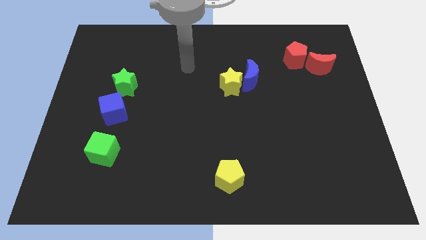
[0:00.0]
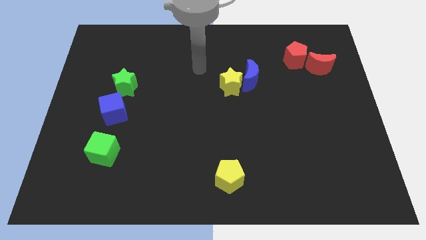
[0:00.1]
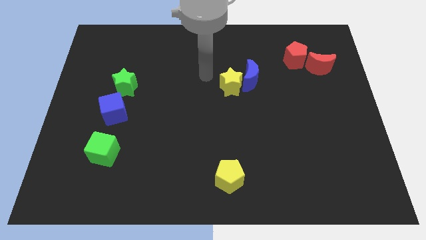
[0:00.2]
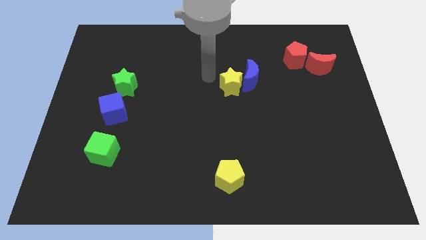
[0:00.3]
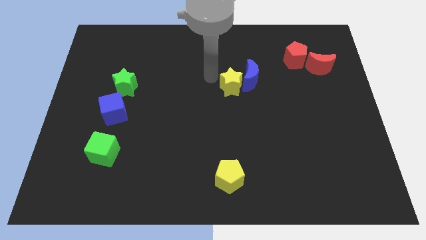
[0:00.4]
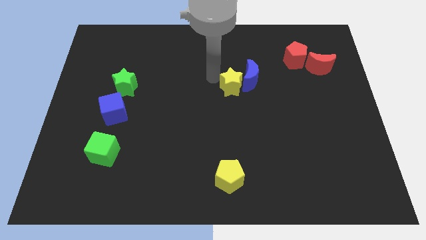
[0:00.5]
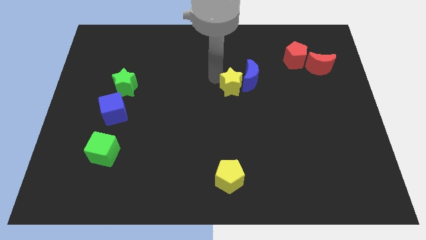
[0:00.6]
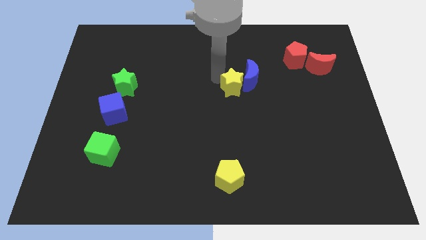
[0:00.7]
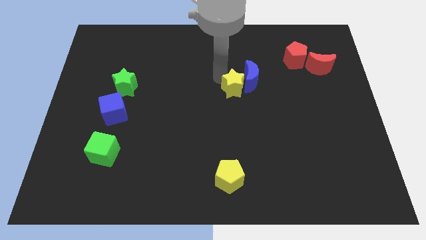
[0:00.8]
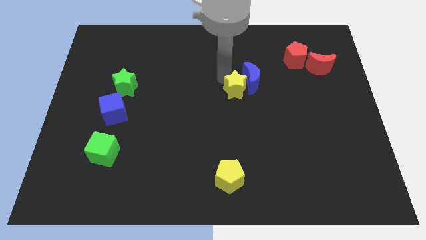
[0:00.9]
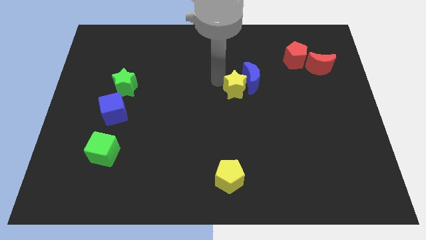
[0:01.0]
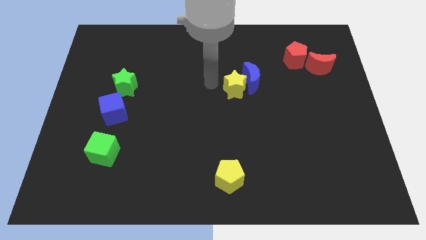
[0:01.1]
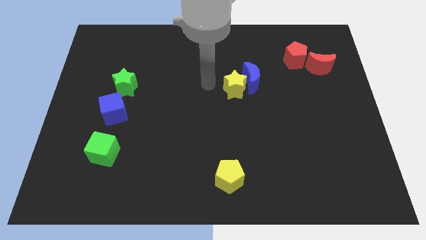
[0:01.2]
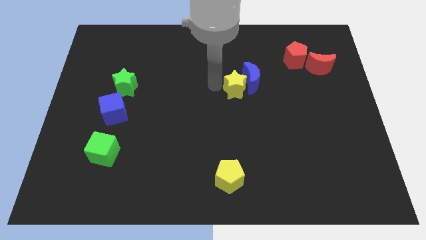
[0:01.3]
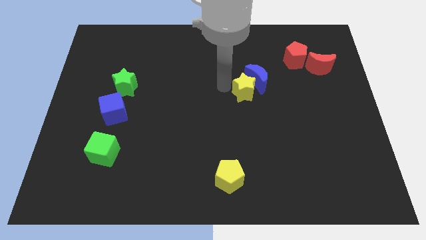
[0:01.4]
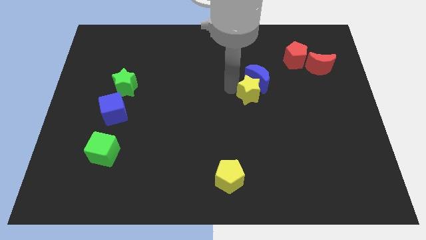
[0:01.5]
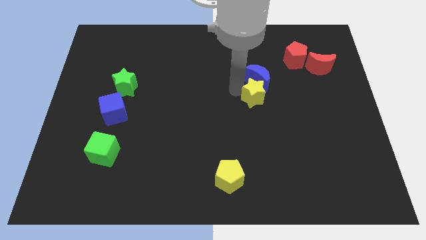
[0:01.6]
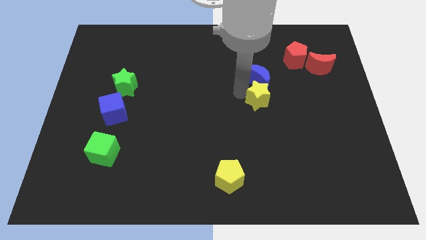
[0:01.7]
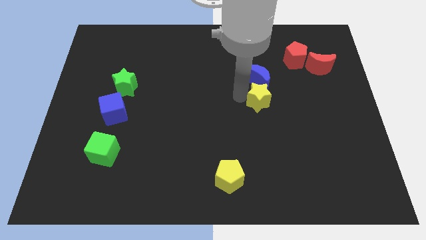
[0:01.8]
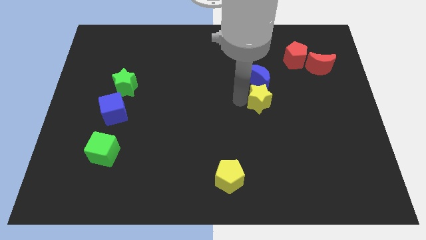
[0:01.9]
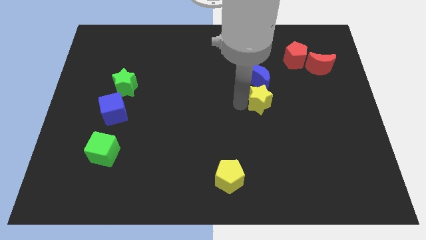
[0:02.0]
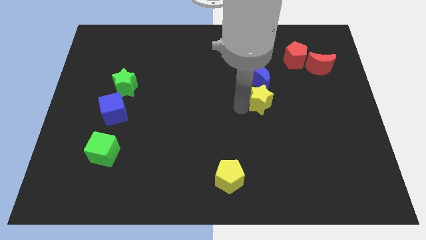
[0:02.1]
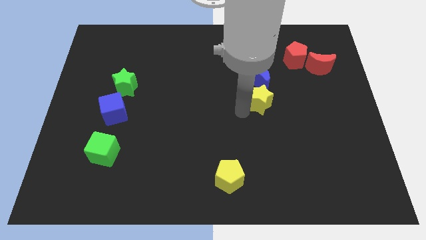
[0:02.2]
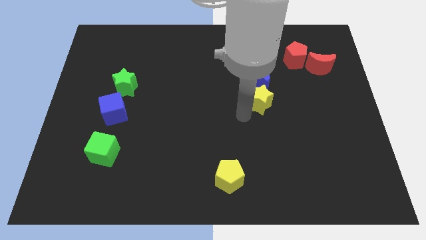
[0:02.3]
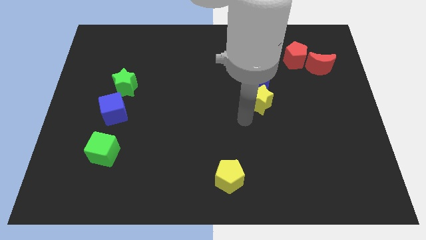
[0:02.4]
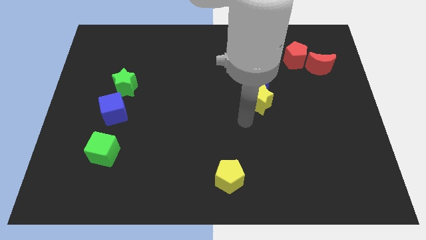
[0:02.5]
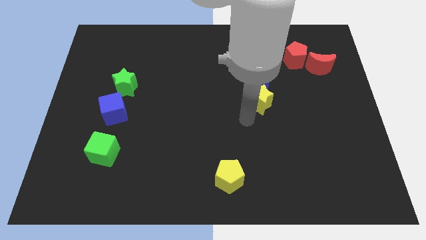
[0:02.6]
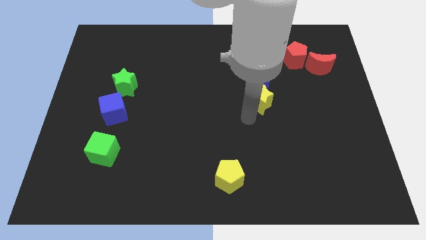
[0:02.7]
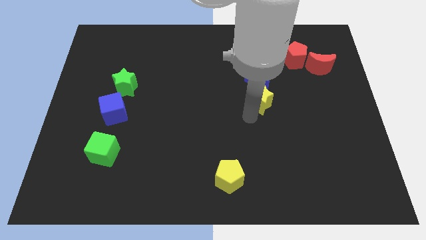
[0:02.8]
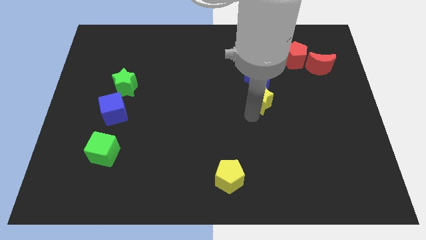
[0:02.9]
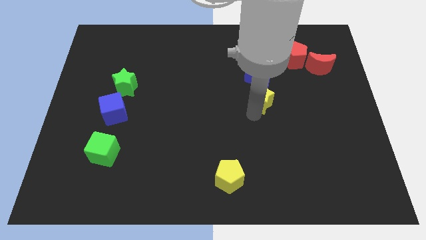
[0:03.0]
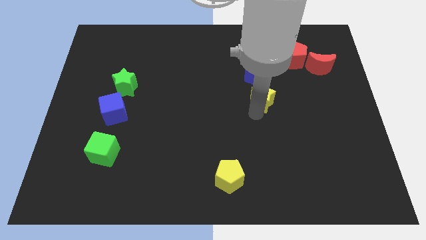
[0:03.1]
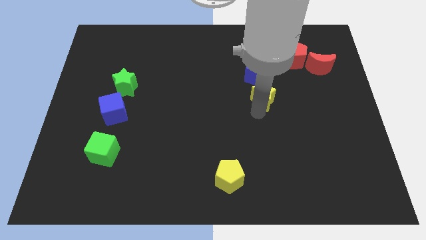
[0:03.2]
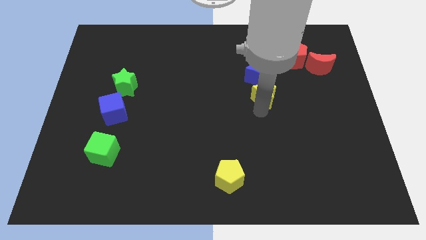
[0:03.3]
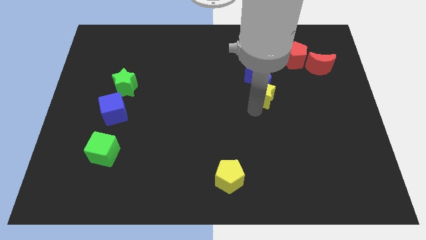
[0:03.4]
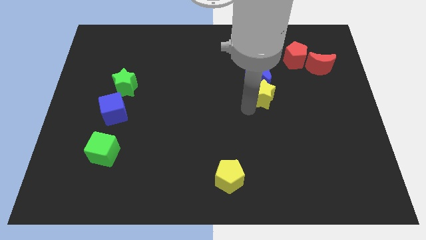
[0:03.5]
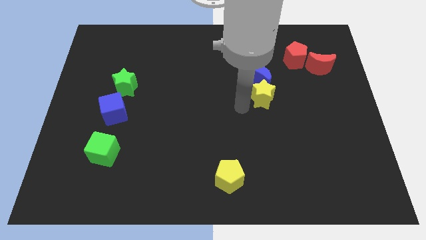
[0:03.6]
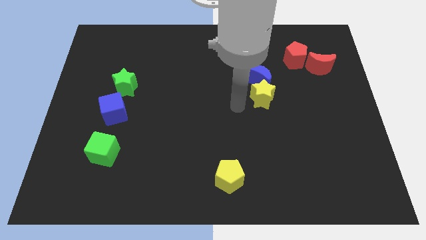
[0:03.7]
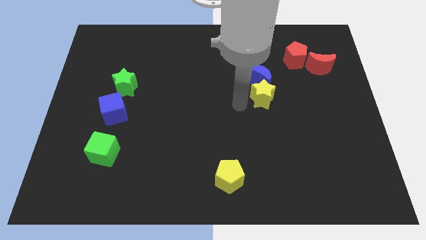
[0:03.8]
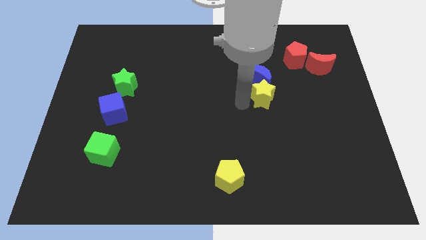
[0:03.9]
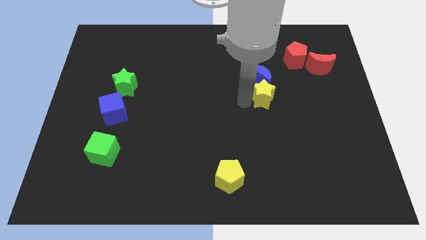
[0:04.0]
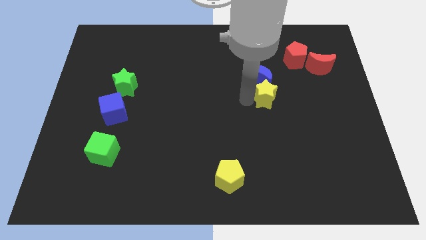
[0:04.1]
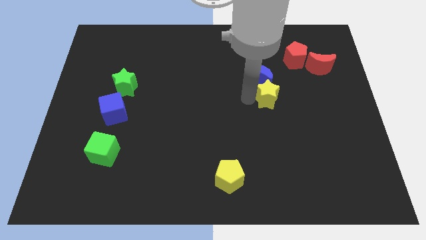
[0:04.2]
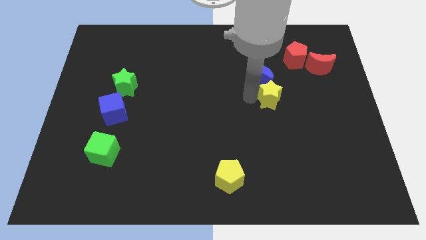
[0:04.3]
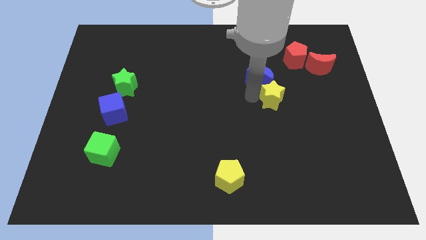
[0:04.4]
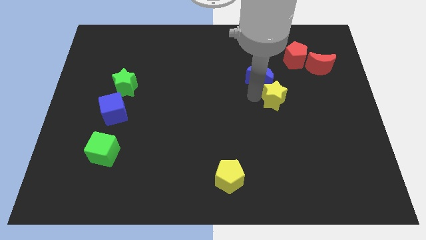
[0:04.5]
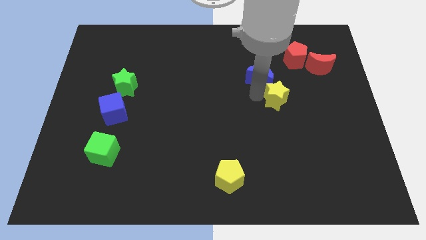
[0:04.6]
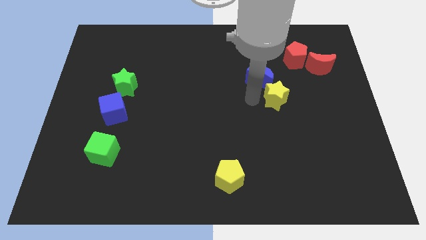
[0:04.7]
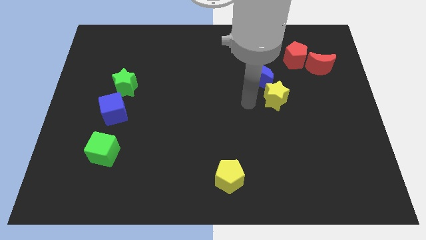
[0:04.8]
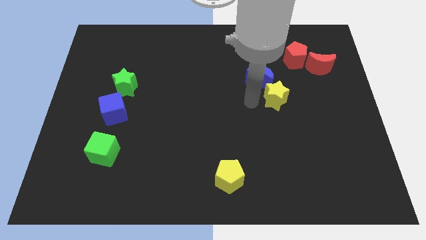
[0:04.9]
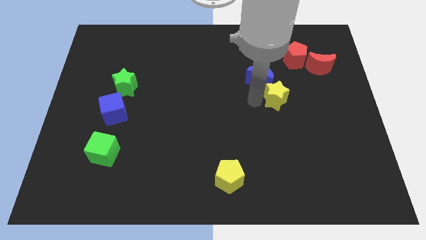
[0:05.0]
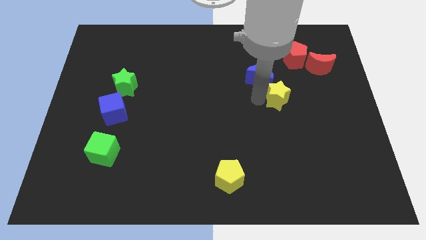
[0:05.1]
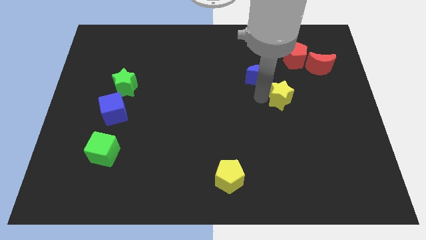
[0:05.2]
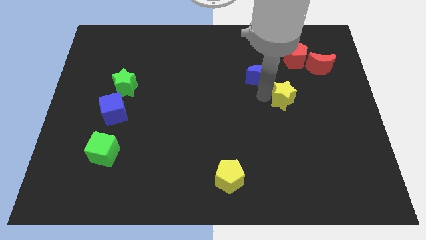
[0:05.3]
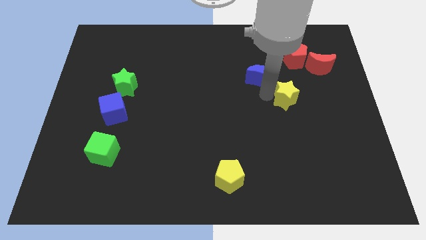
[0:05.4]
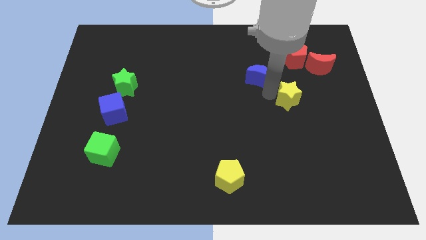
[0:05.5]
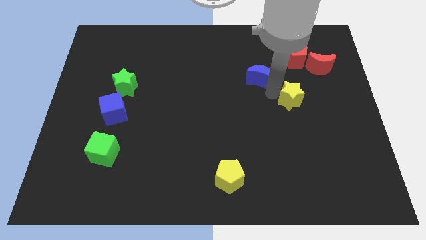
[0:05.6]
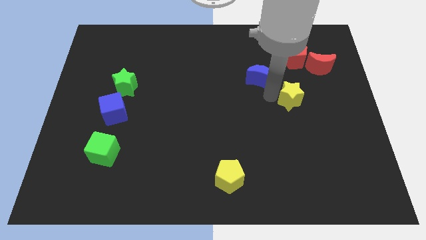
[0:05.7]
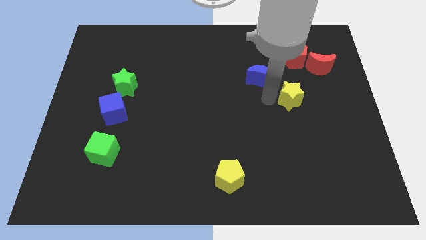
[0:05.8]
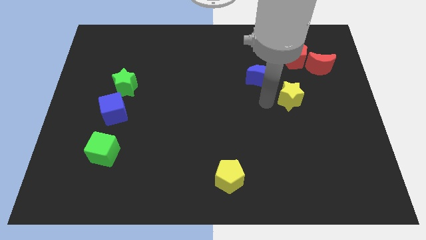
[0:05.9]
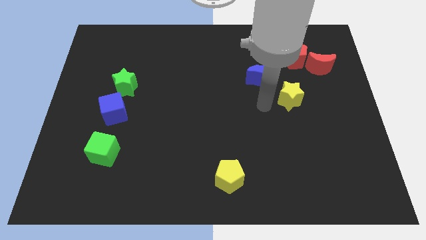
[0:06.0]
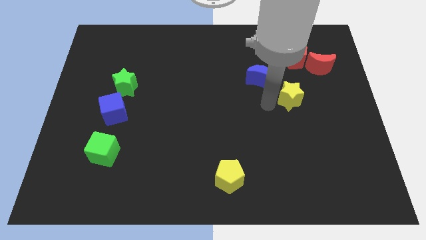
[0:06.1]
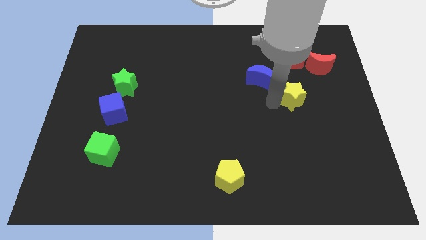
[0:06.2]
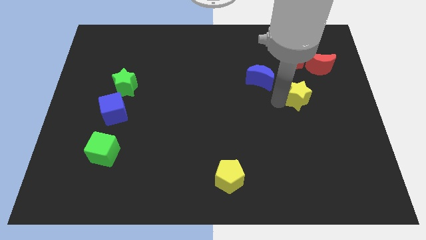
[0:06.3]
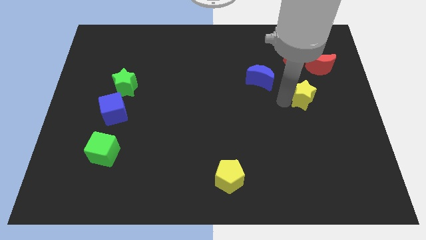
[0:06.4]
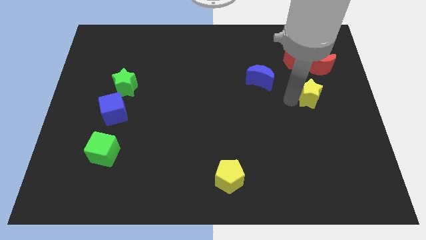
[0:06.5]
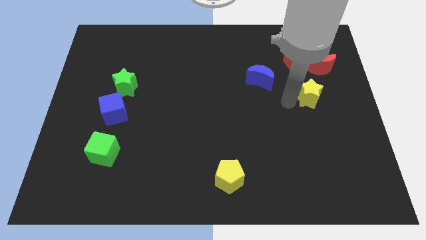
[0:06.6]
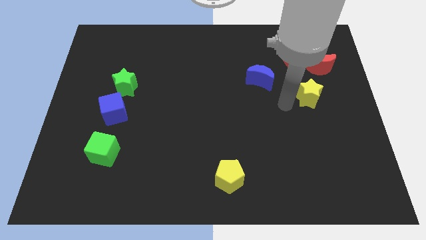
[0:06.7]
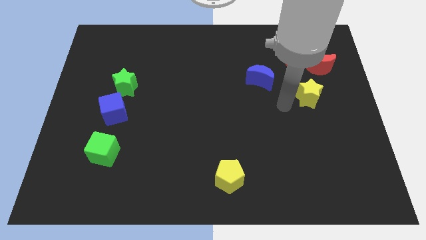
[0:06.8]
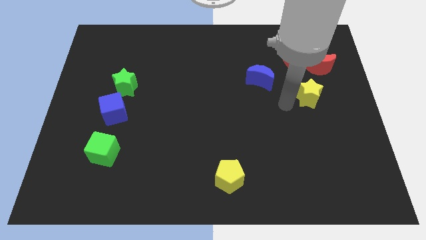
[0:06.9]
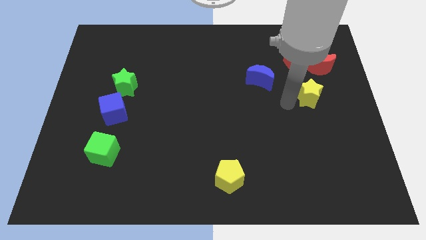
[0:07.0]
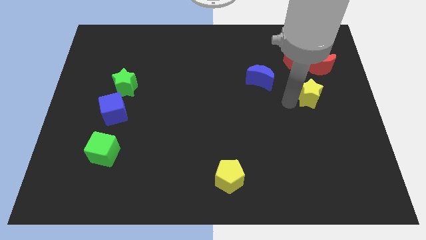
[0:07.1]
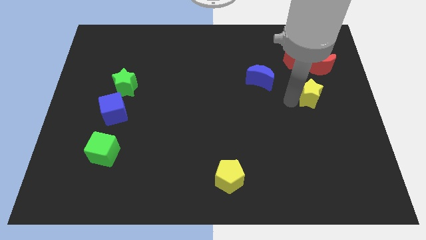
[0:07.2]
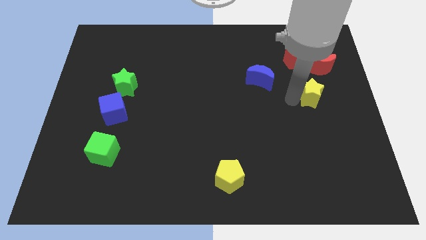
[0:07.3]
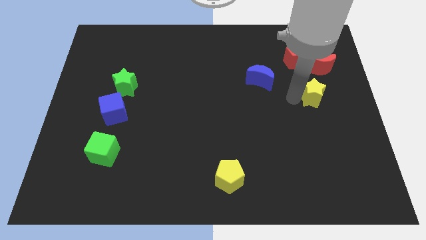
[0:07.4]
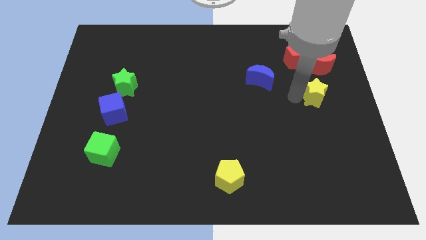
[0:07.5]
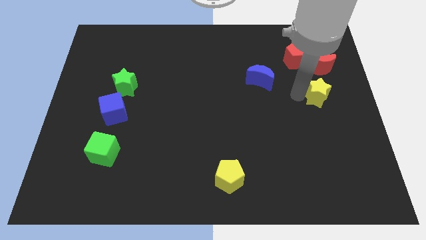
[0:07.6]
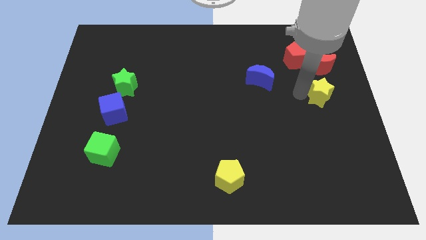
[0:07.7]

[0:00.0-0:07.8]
slide the yellow star to the right side

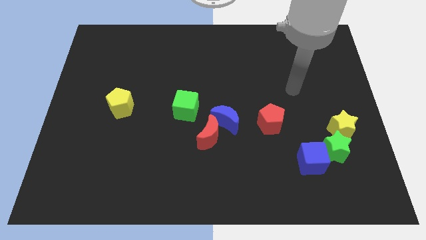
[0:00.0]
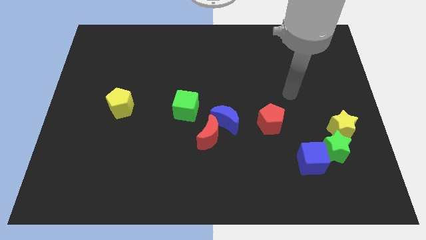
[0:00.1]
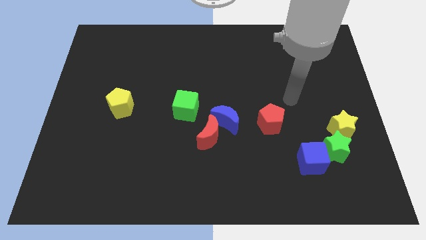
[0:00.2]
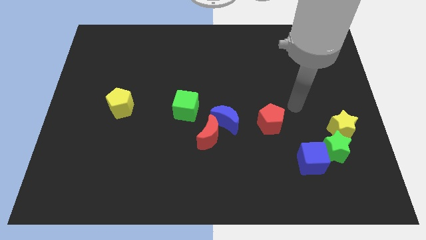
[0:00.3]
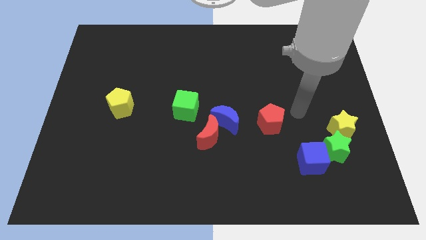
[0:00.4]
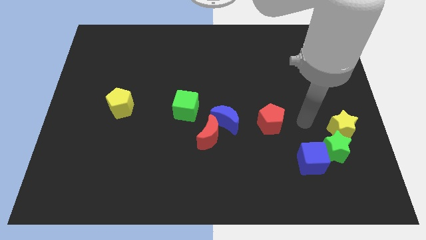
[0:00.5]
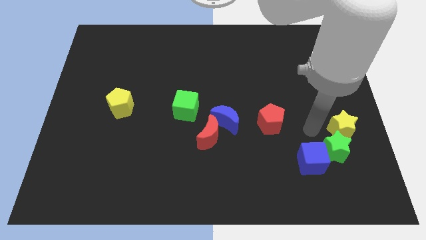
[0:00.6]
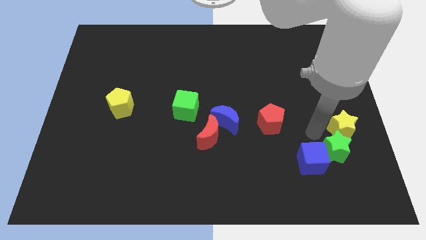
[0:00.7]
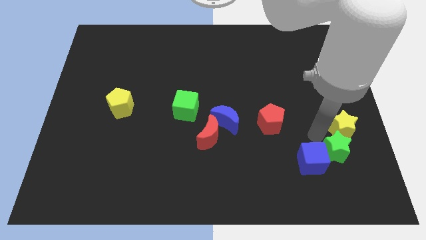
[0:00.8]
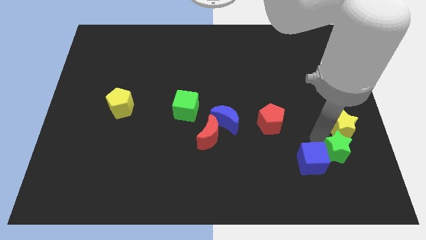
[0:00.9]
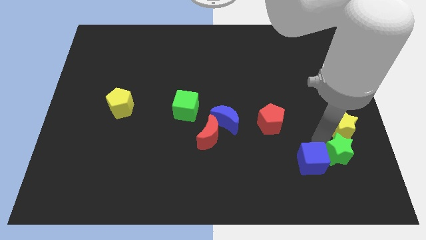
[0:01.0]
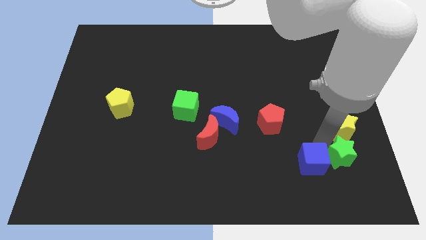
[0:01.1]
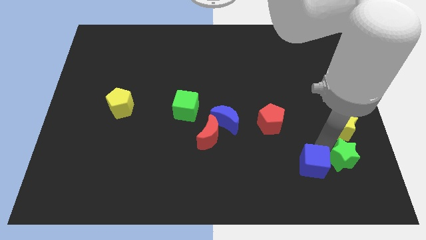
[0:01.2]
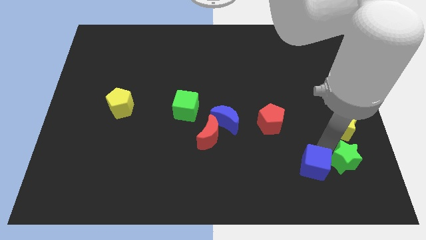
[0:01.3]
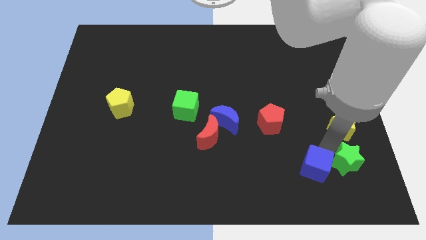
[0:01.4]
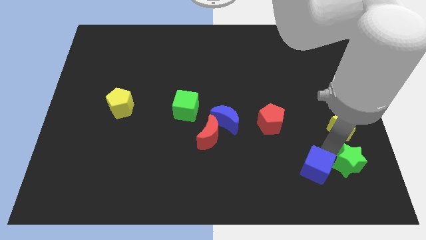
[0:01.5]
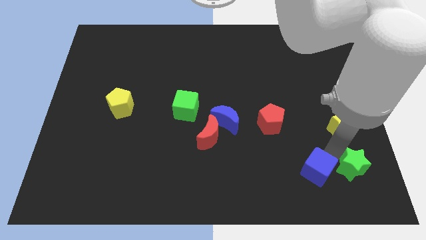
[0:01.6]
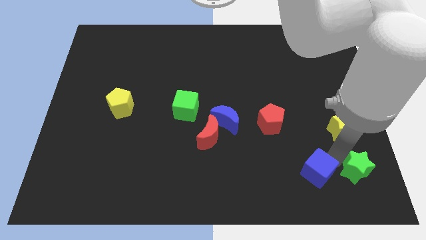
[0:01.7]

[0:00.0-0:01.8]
move the green star to the lower right corner
